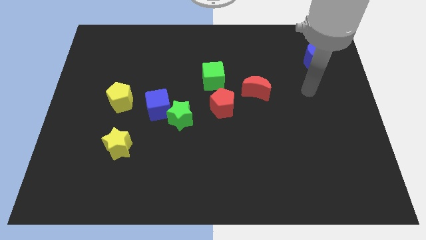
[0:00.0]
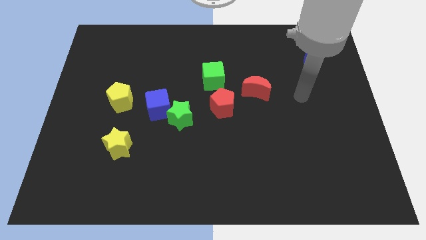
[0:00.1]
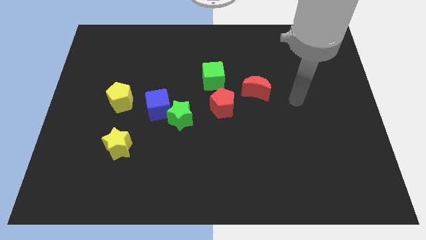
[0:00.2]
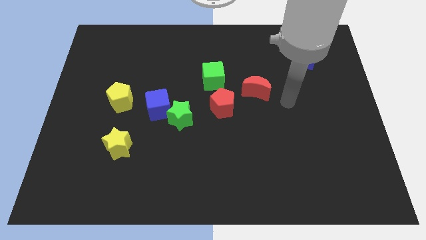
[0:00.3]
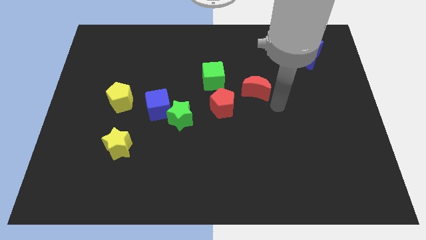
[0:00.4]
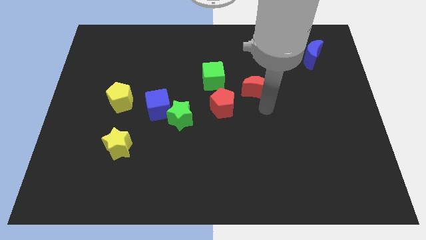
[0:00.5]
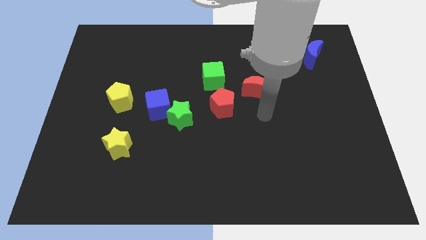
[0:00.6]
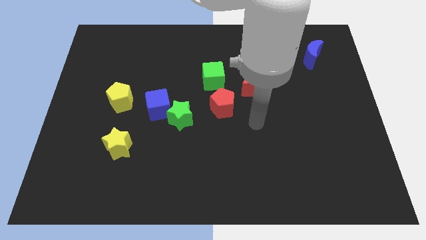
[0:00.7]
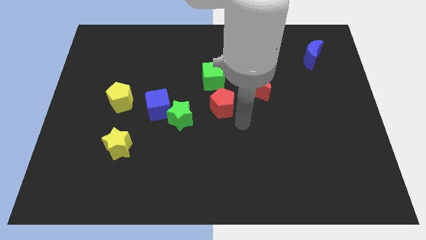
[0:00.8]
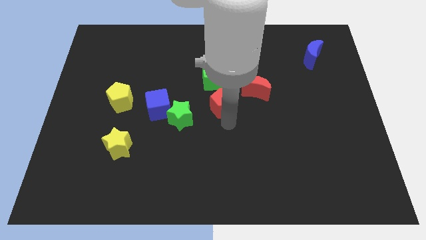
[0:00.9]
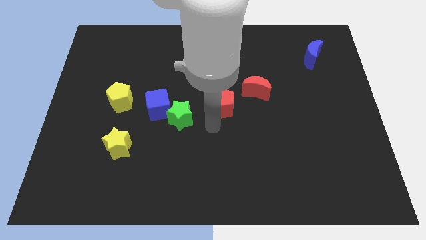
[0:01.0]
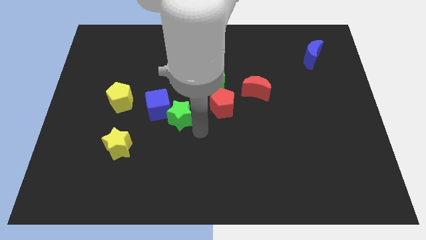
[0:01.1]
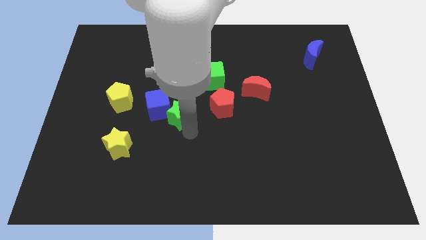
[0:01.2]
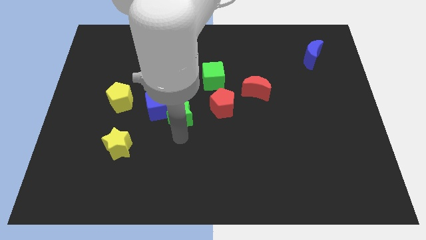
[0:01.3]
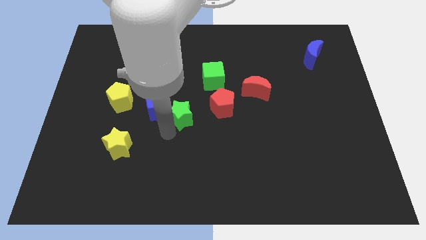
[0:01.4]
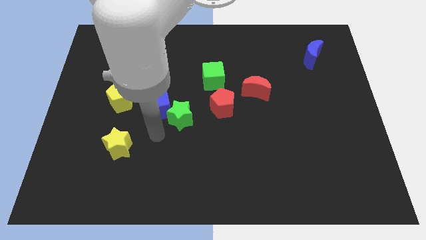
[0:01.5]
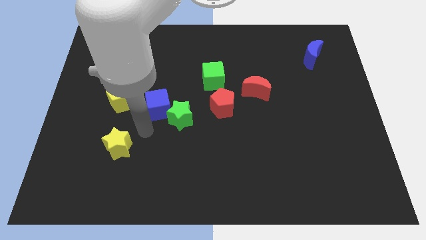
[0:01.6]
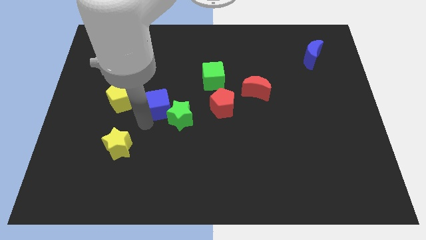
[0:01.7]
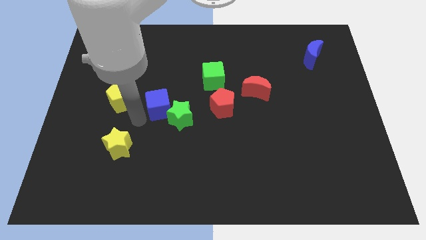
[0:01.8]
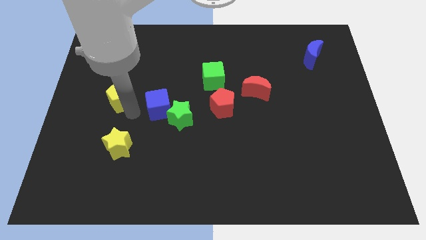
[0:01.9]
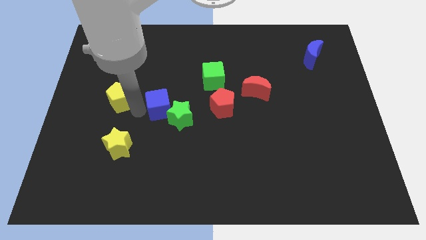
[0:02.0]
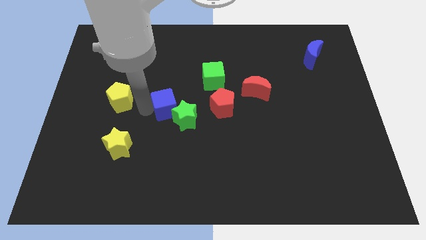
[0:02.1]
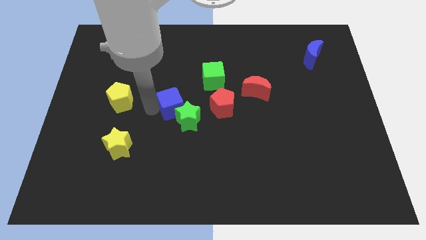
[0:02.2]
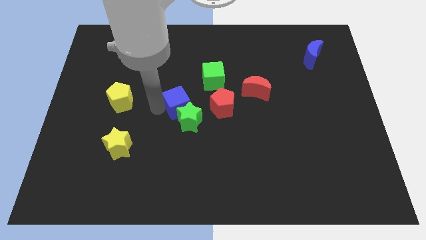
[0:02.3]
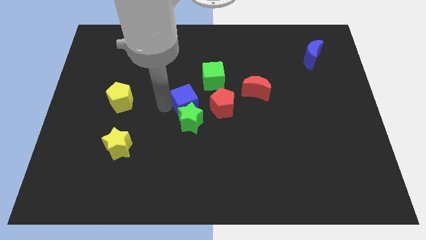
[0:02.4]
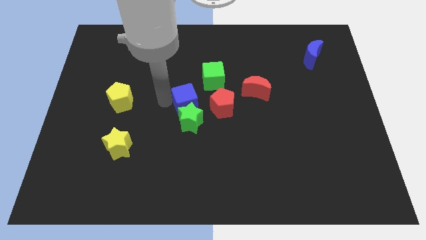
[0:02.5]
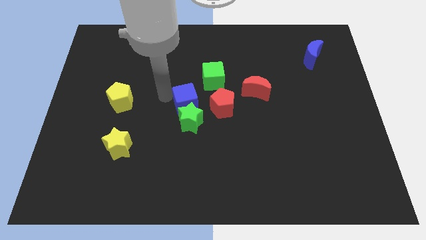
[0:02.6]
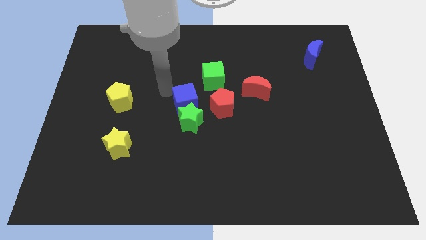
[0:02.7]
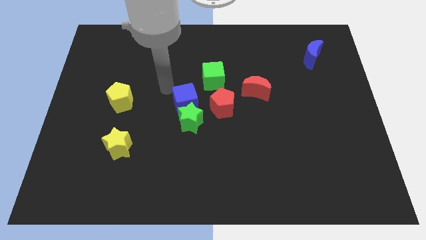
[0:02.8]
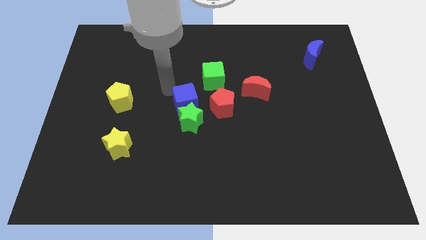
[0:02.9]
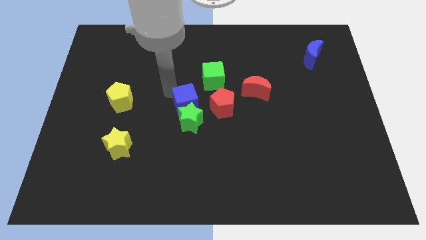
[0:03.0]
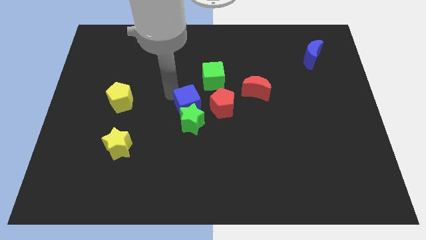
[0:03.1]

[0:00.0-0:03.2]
push the blue cube a little right

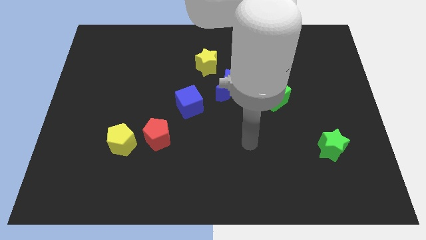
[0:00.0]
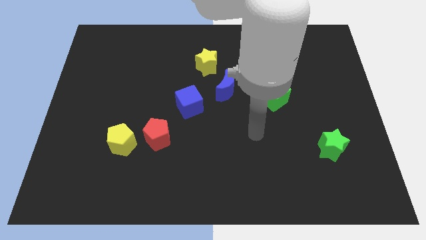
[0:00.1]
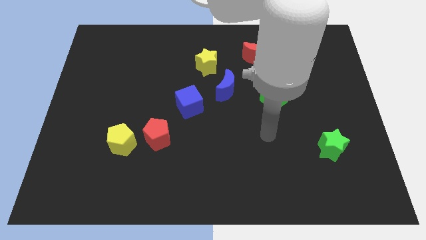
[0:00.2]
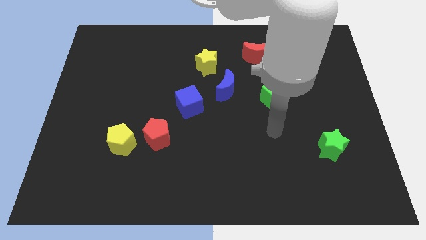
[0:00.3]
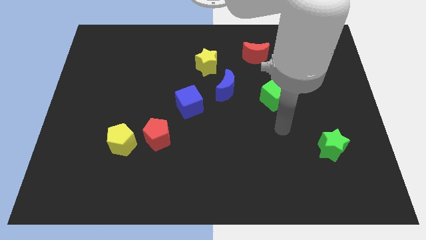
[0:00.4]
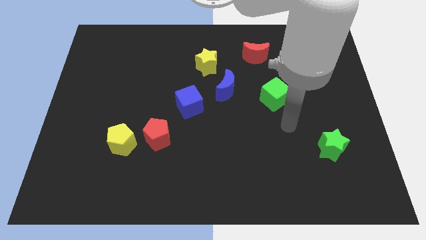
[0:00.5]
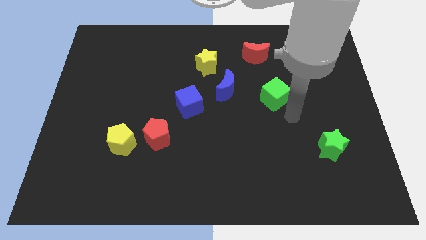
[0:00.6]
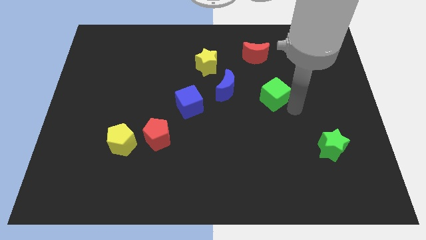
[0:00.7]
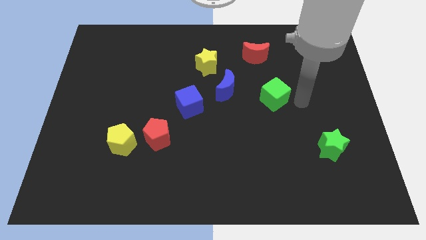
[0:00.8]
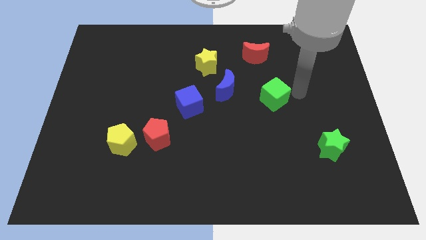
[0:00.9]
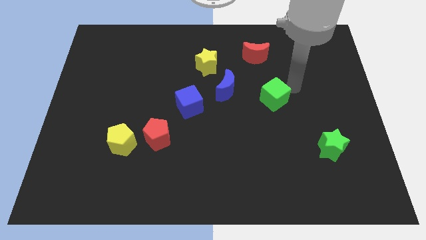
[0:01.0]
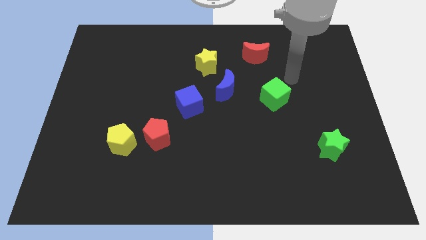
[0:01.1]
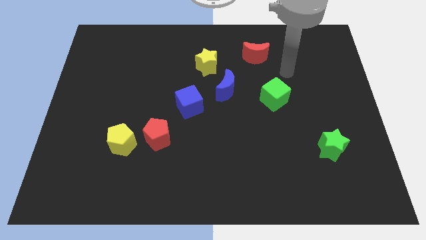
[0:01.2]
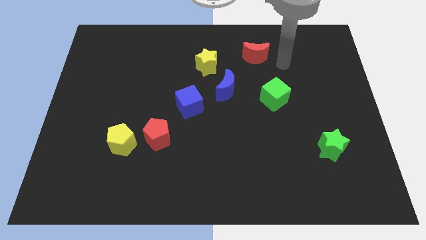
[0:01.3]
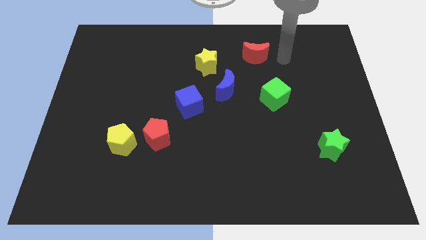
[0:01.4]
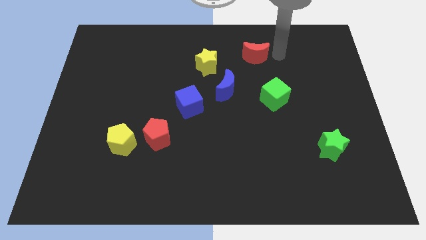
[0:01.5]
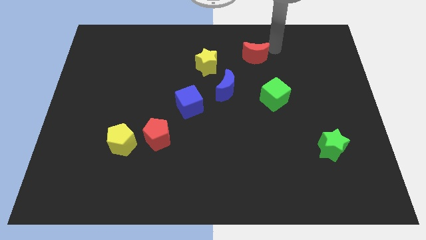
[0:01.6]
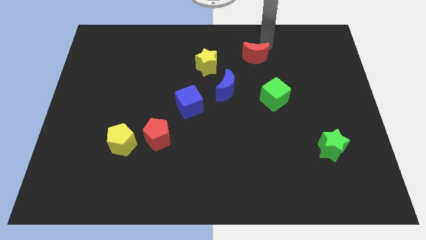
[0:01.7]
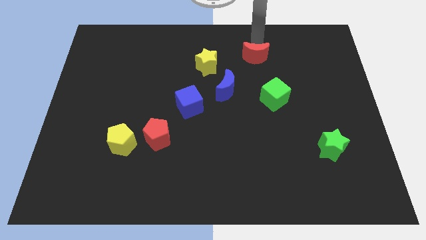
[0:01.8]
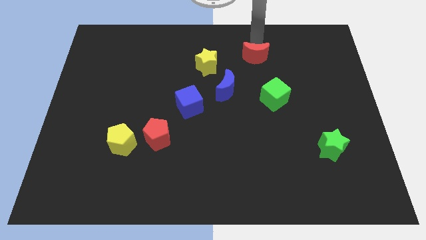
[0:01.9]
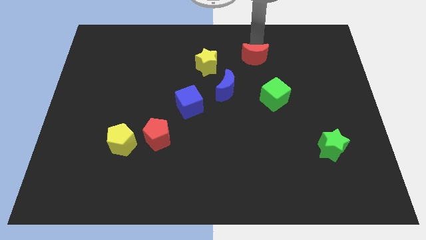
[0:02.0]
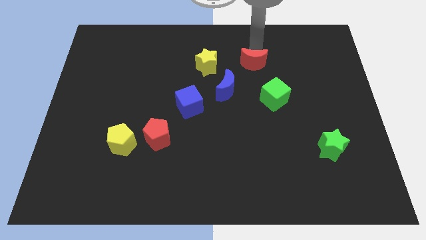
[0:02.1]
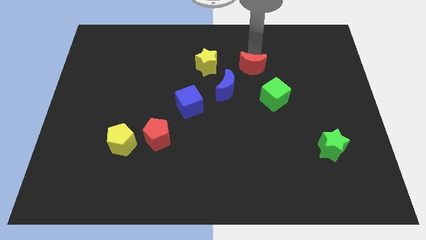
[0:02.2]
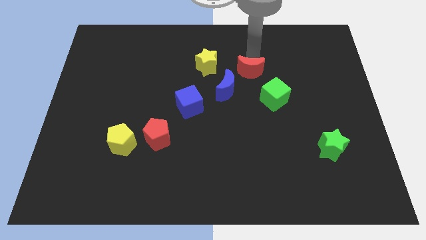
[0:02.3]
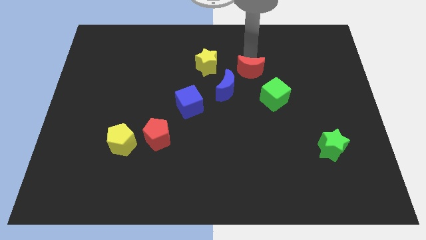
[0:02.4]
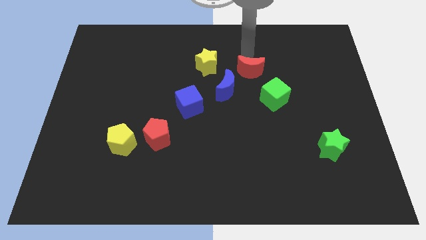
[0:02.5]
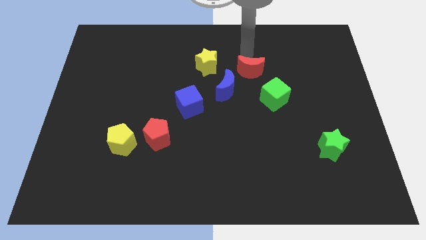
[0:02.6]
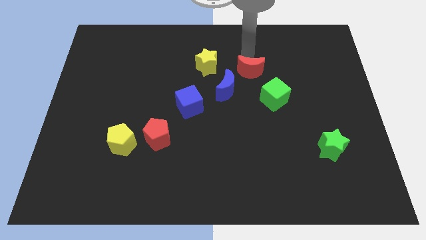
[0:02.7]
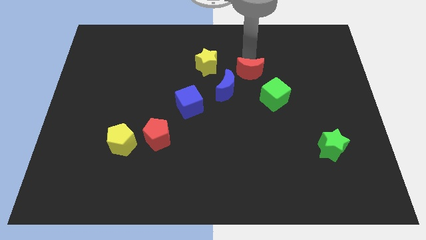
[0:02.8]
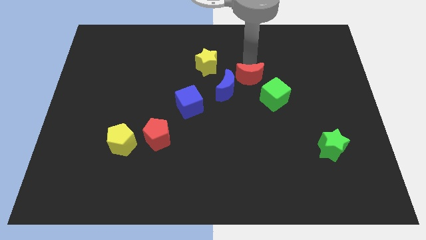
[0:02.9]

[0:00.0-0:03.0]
slide the red moon down a little

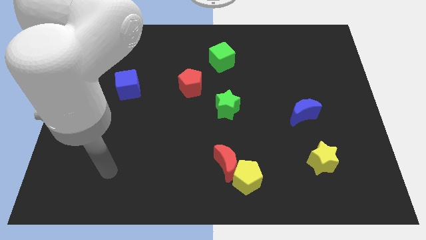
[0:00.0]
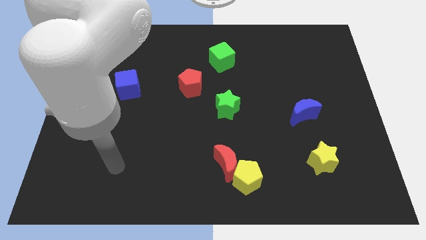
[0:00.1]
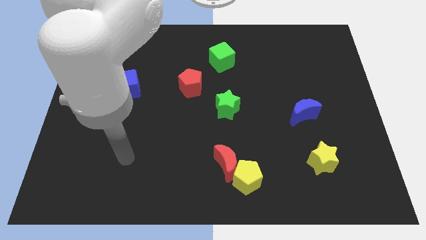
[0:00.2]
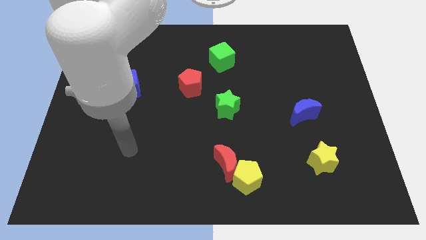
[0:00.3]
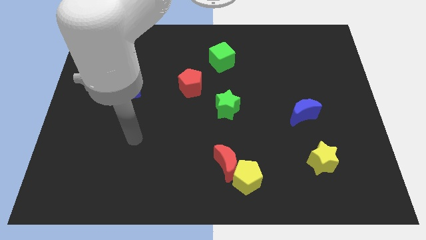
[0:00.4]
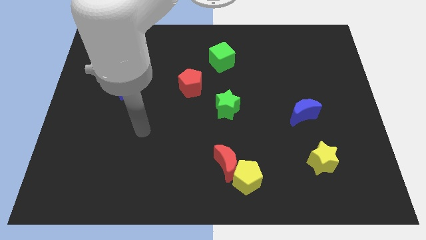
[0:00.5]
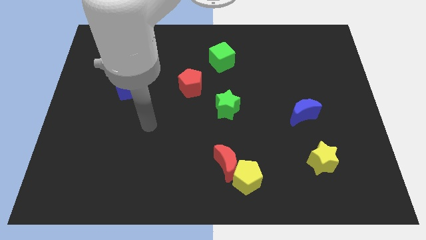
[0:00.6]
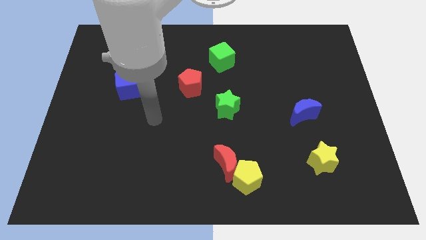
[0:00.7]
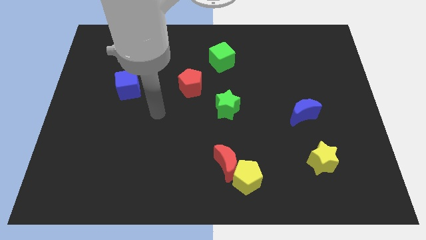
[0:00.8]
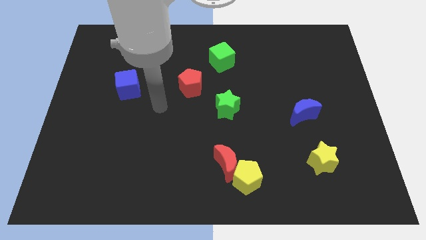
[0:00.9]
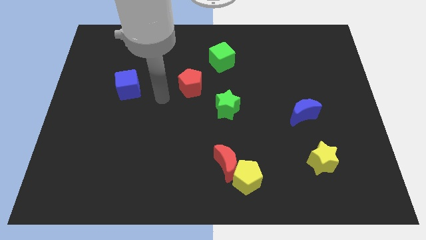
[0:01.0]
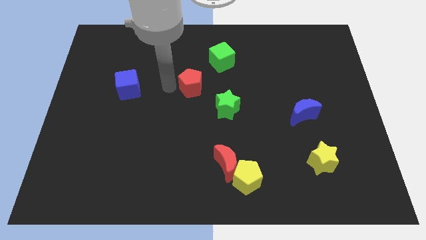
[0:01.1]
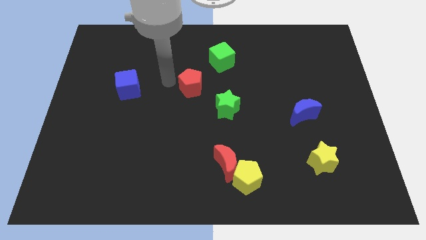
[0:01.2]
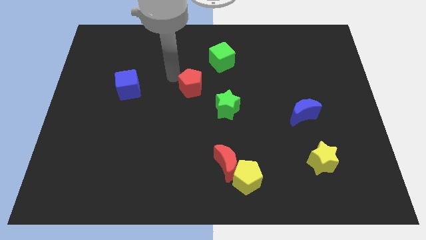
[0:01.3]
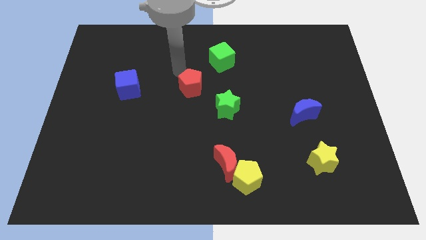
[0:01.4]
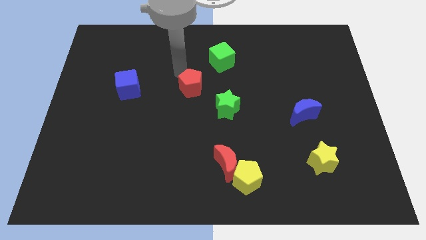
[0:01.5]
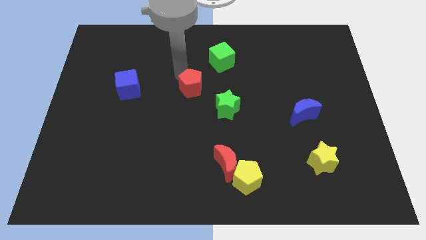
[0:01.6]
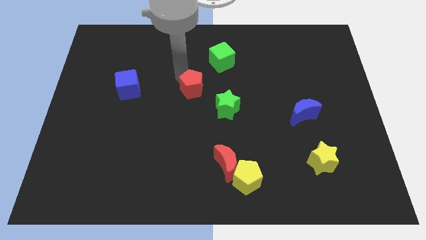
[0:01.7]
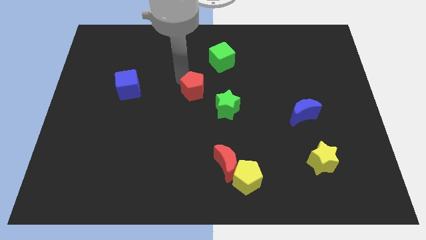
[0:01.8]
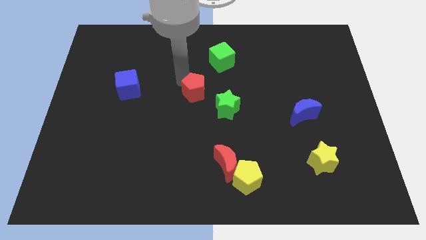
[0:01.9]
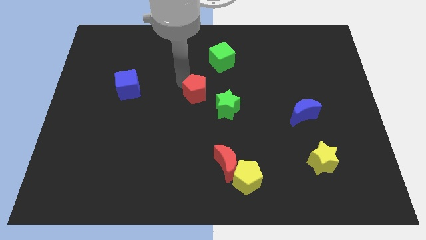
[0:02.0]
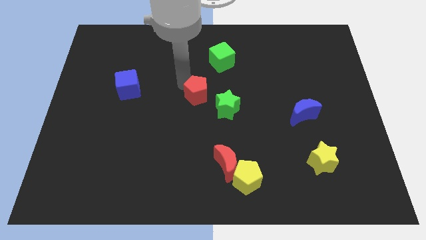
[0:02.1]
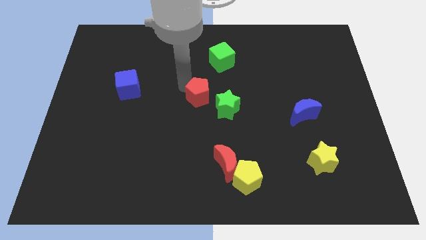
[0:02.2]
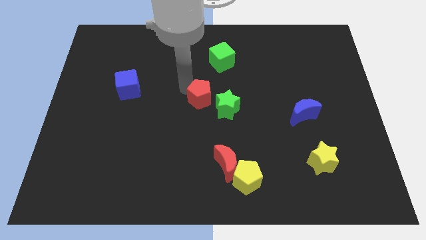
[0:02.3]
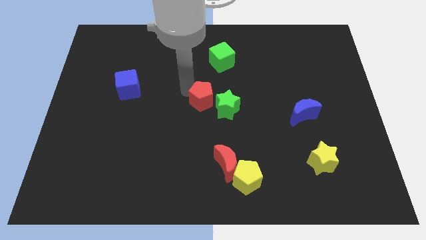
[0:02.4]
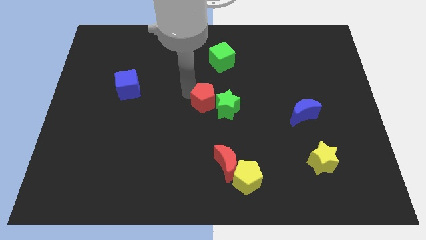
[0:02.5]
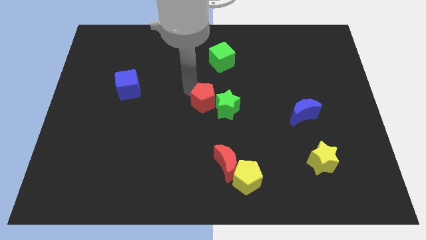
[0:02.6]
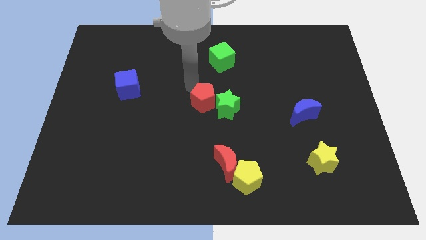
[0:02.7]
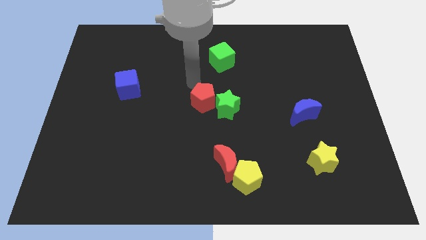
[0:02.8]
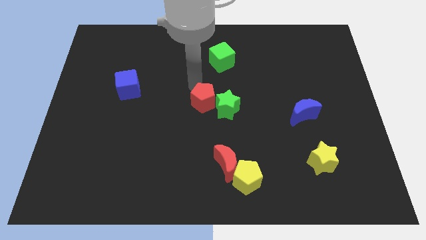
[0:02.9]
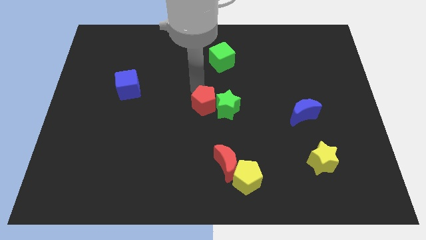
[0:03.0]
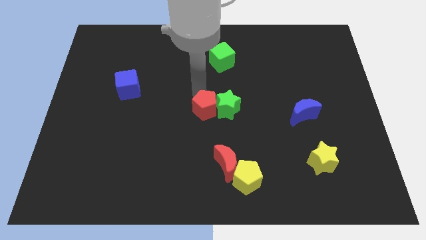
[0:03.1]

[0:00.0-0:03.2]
push the red pentagon down and right diagonally a bit
